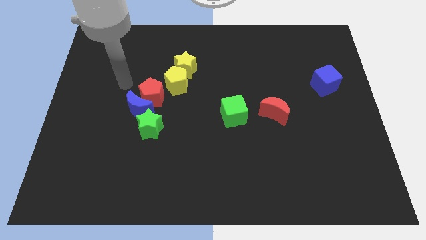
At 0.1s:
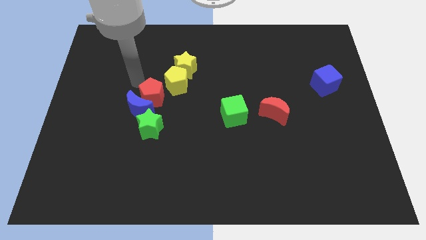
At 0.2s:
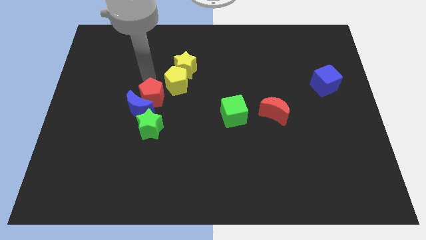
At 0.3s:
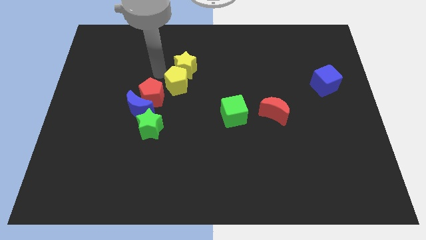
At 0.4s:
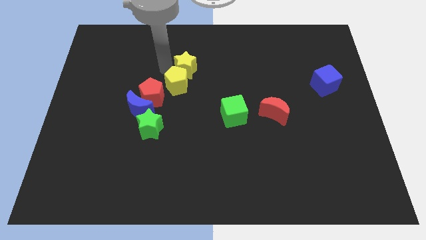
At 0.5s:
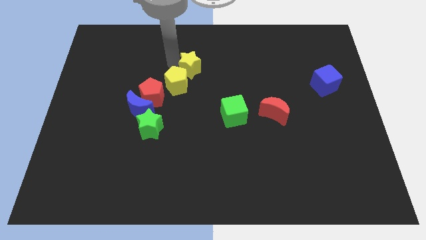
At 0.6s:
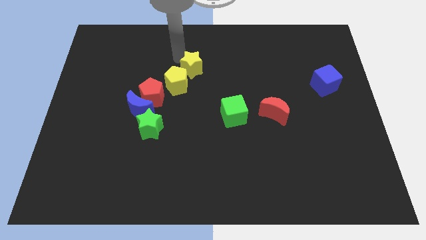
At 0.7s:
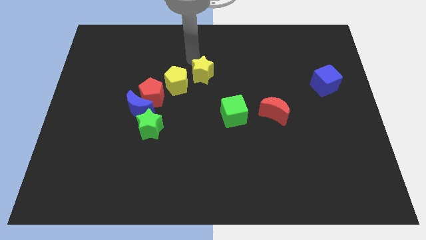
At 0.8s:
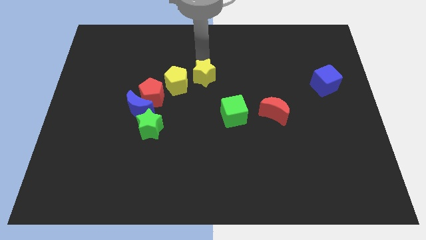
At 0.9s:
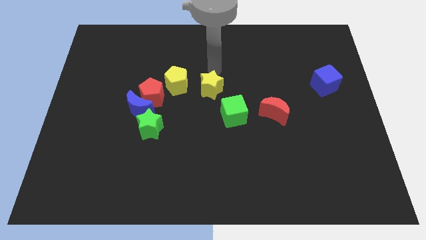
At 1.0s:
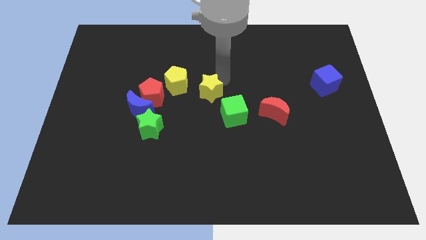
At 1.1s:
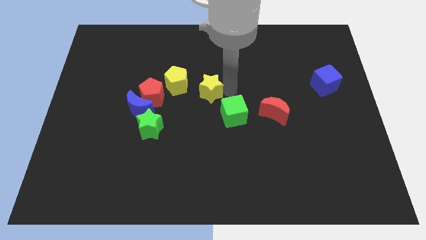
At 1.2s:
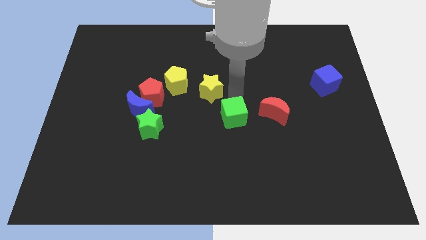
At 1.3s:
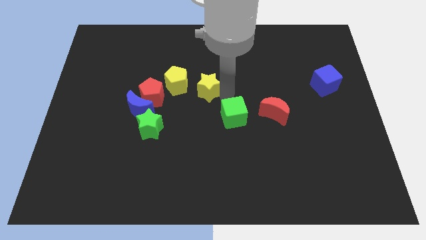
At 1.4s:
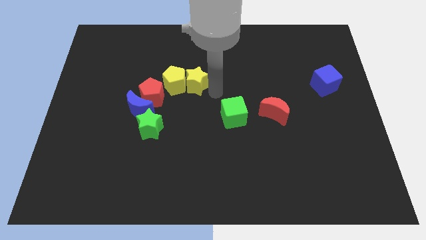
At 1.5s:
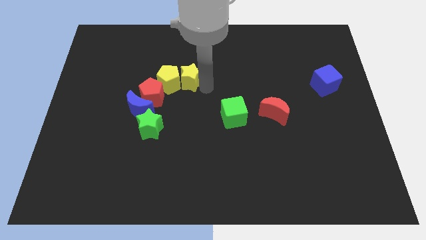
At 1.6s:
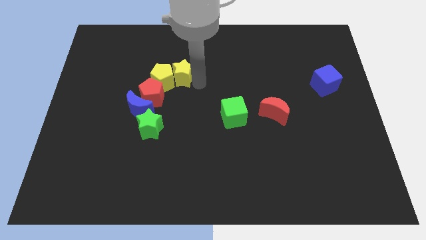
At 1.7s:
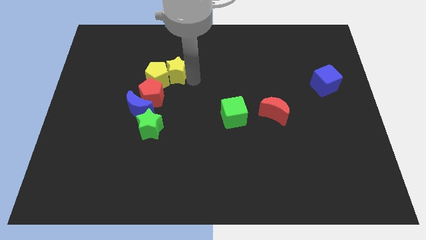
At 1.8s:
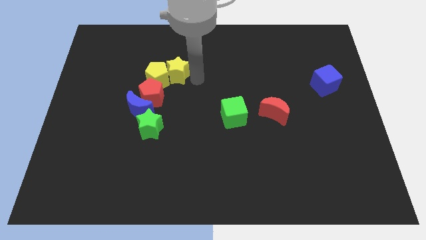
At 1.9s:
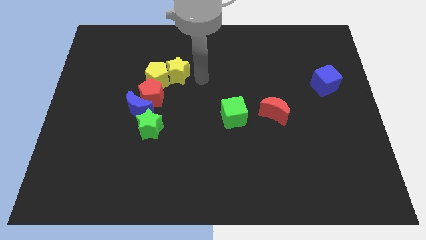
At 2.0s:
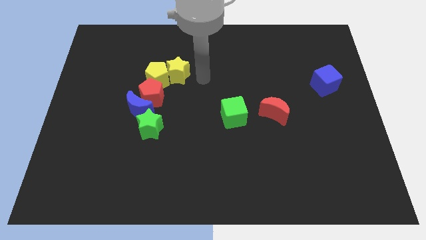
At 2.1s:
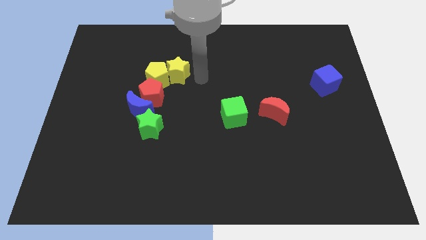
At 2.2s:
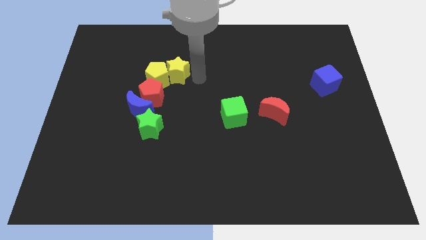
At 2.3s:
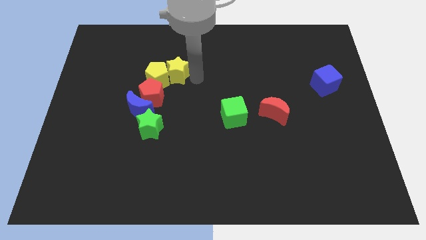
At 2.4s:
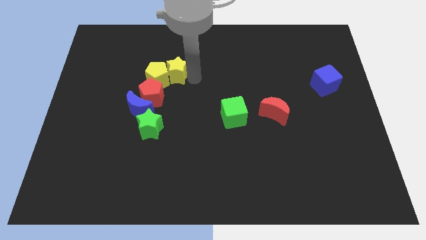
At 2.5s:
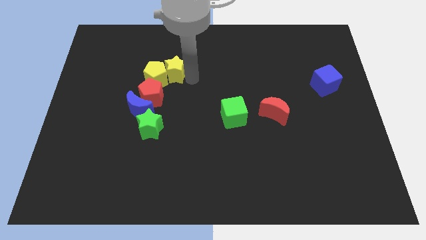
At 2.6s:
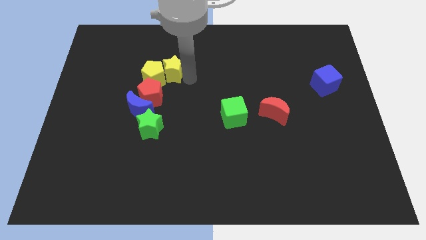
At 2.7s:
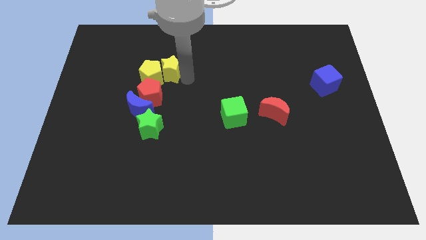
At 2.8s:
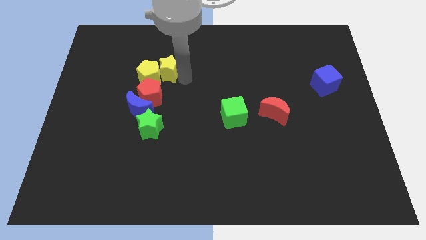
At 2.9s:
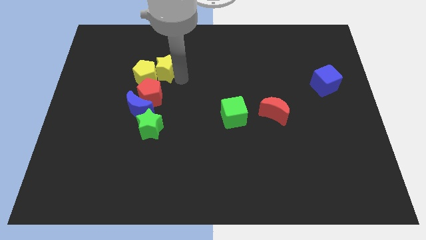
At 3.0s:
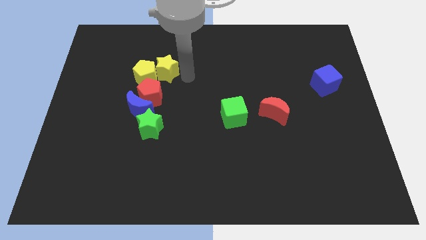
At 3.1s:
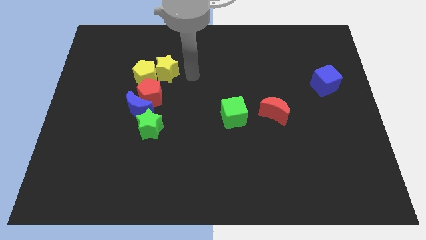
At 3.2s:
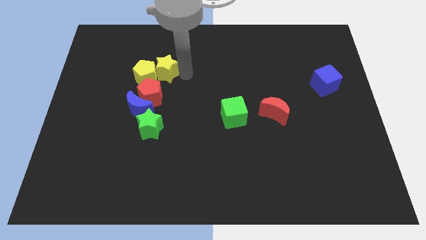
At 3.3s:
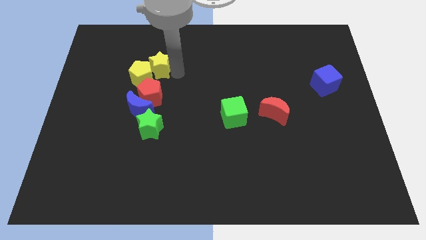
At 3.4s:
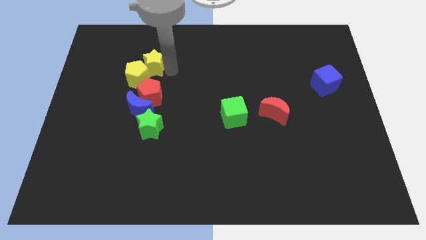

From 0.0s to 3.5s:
slide the yellow star left a bit

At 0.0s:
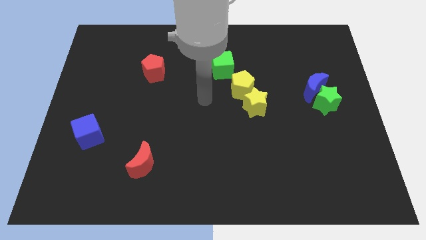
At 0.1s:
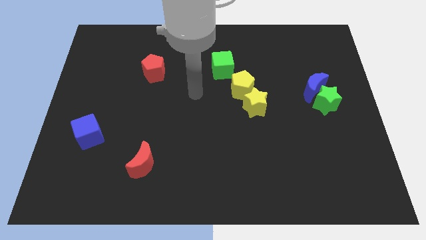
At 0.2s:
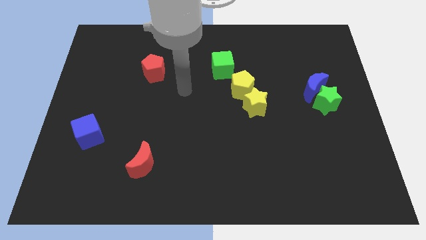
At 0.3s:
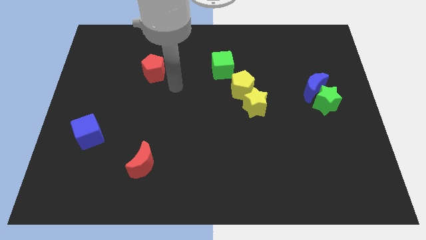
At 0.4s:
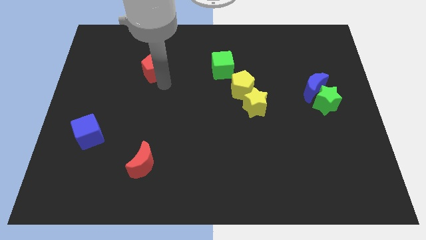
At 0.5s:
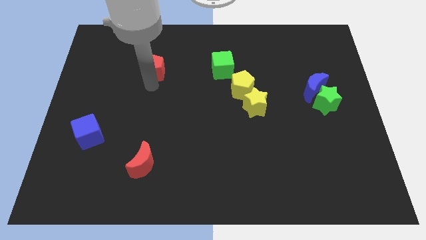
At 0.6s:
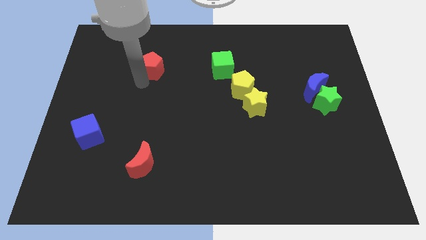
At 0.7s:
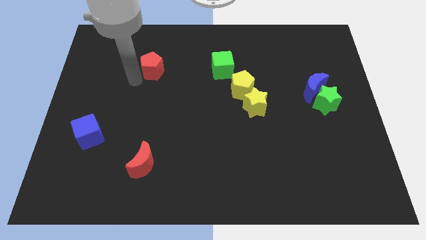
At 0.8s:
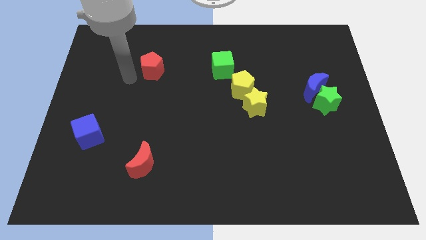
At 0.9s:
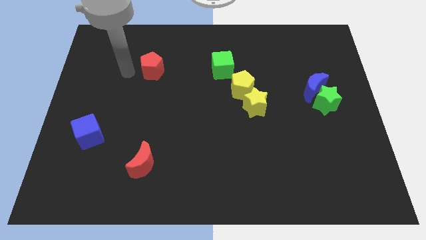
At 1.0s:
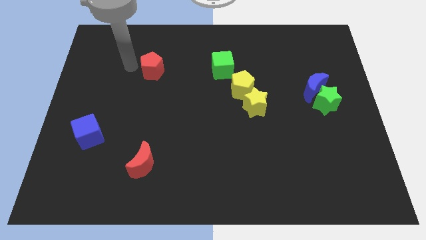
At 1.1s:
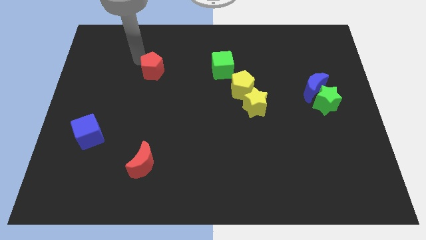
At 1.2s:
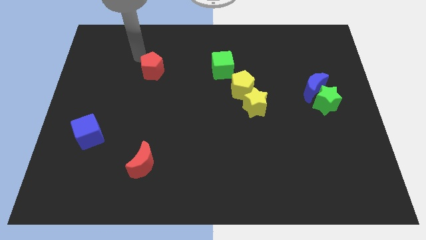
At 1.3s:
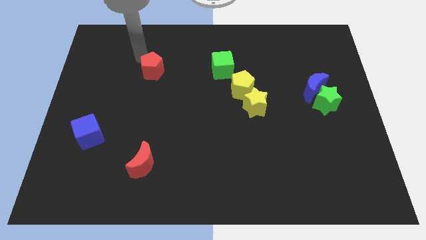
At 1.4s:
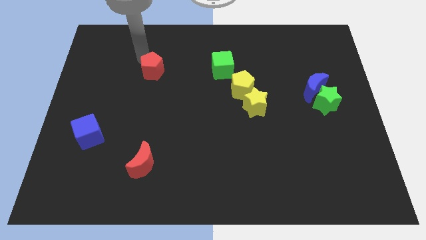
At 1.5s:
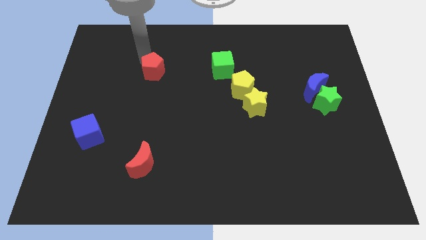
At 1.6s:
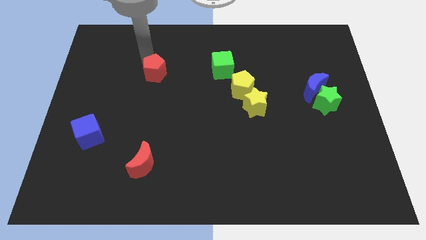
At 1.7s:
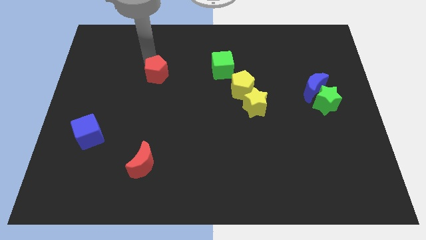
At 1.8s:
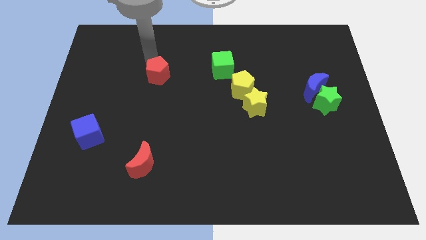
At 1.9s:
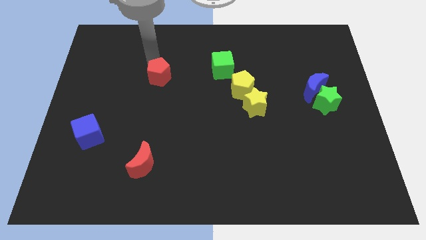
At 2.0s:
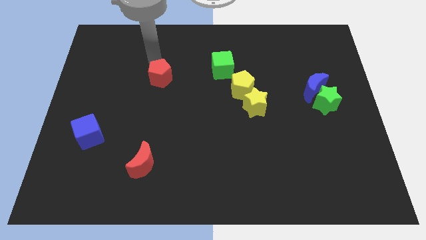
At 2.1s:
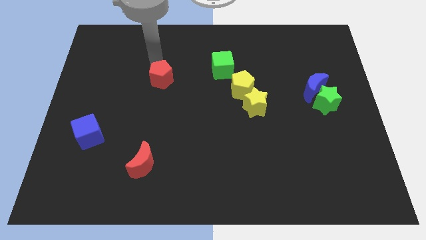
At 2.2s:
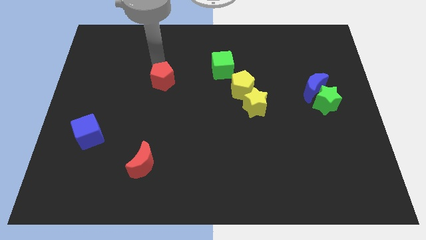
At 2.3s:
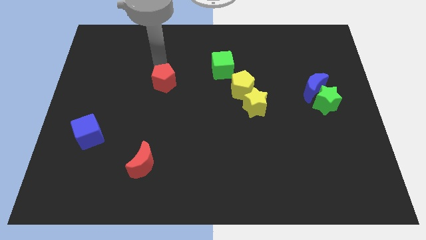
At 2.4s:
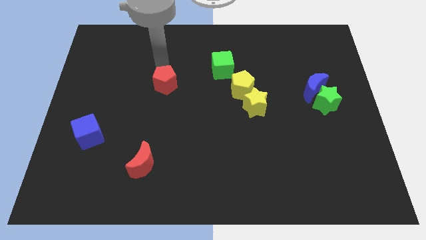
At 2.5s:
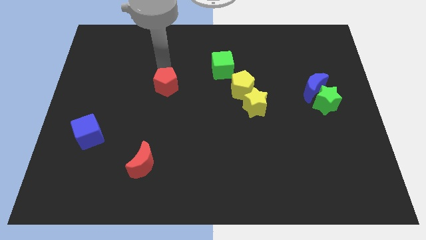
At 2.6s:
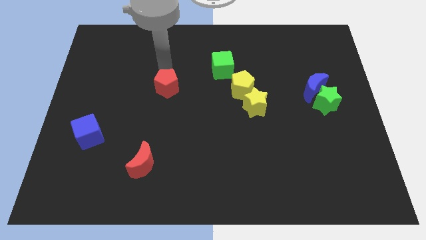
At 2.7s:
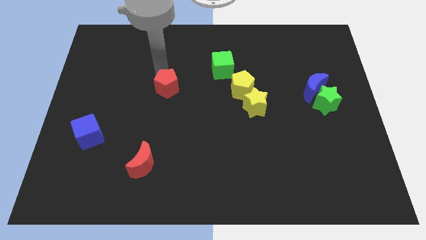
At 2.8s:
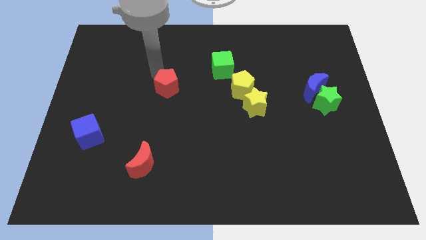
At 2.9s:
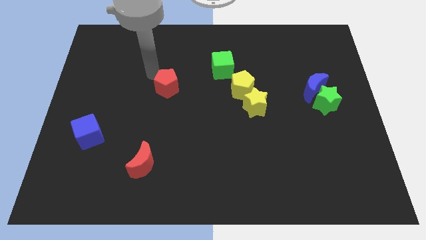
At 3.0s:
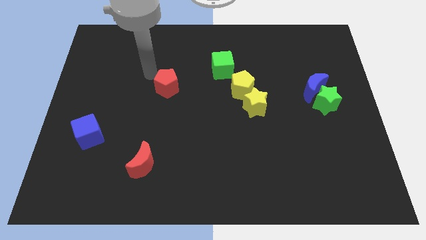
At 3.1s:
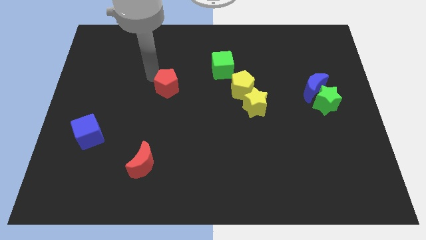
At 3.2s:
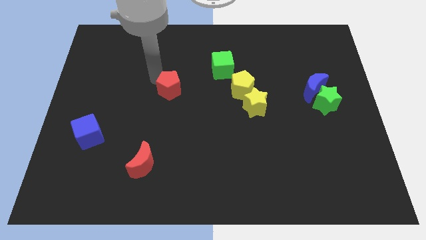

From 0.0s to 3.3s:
move the red pentagon downwards and to the right a bit

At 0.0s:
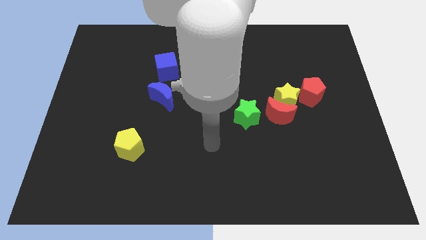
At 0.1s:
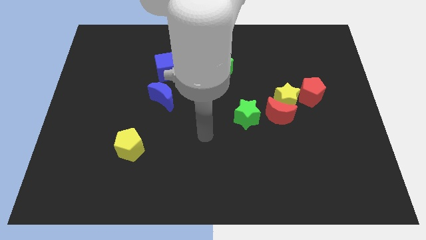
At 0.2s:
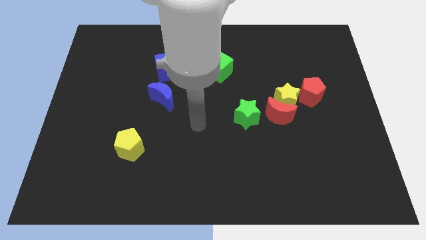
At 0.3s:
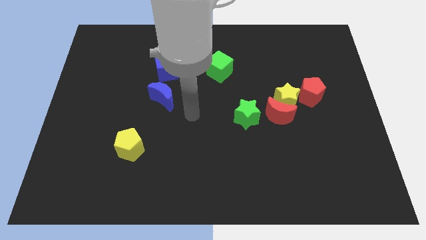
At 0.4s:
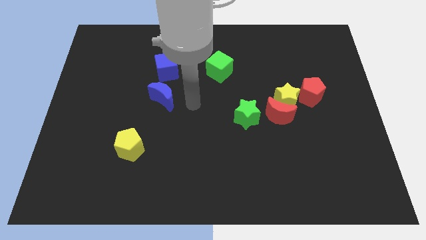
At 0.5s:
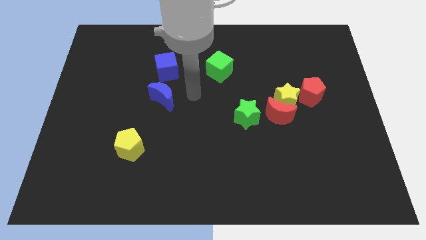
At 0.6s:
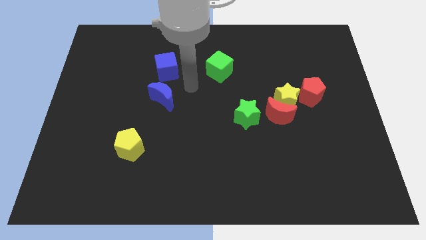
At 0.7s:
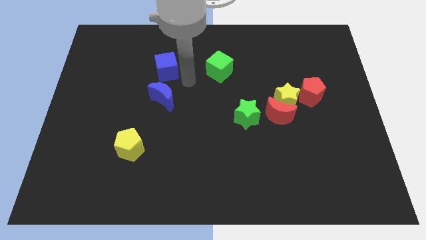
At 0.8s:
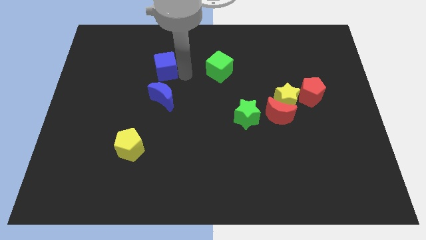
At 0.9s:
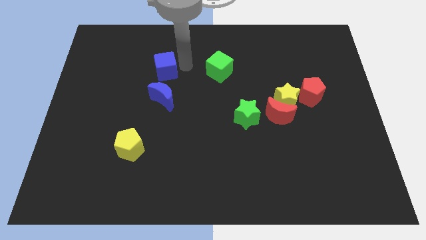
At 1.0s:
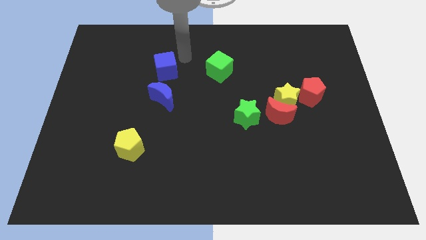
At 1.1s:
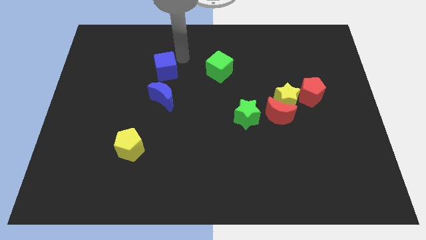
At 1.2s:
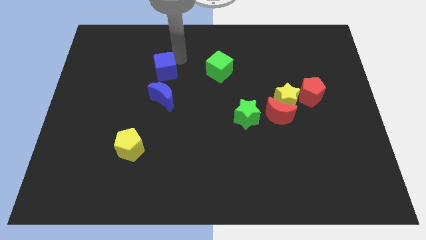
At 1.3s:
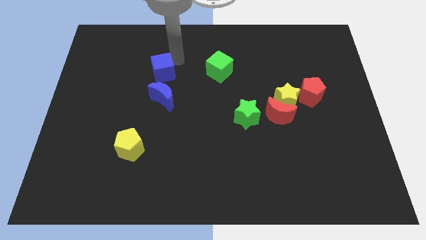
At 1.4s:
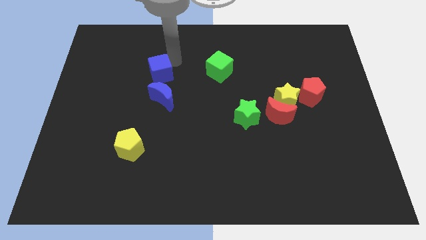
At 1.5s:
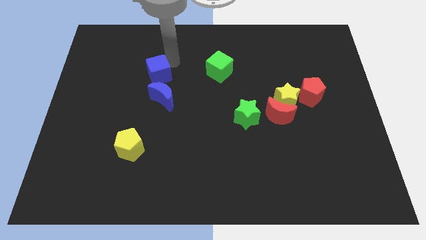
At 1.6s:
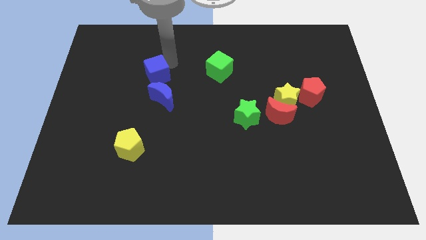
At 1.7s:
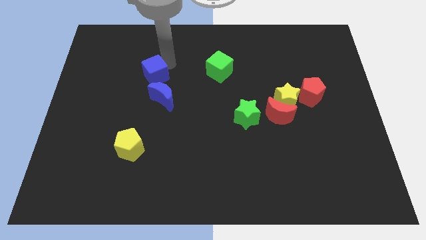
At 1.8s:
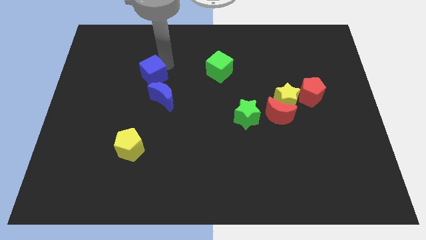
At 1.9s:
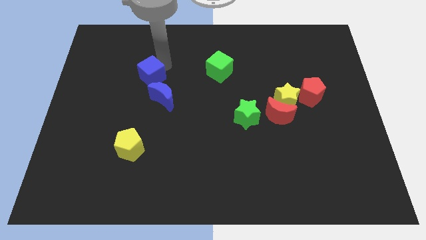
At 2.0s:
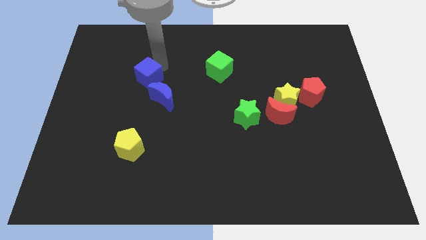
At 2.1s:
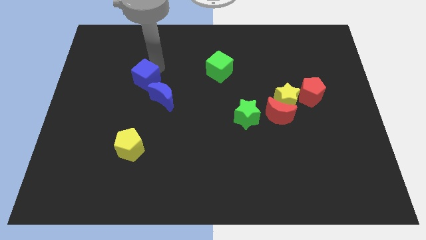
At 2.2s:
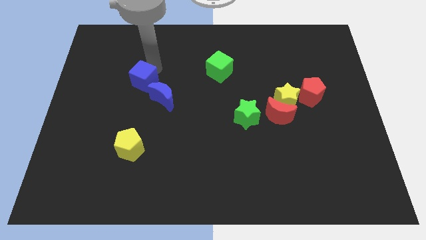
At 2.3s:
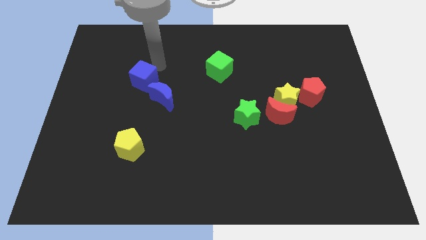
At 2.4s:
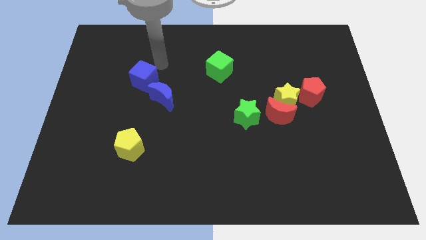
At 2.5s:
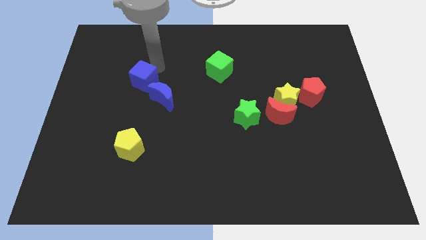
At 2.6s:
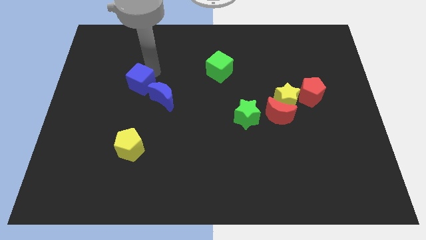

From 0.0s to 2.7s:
slightly push the blue cube diagonally down and left
